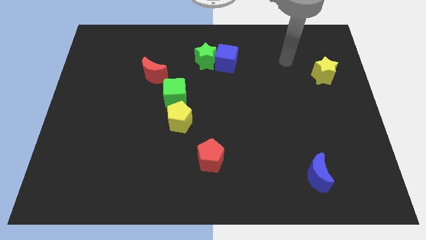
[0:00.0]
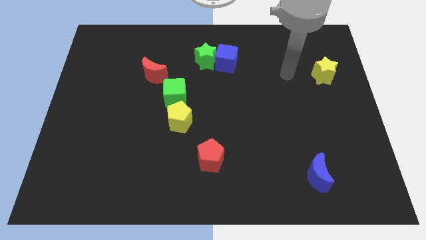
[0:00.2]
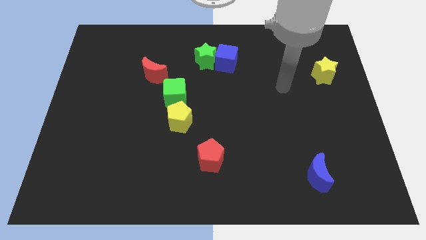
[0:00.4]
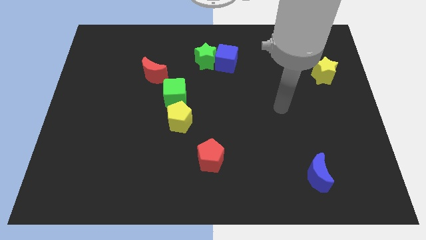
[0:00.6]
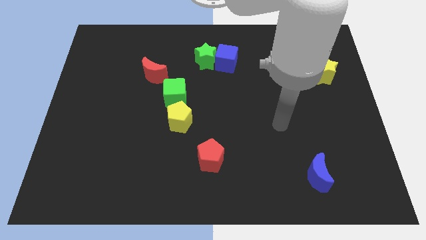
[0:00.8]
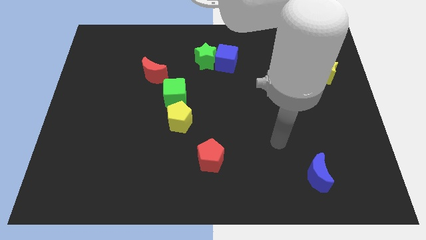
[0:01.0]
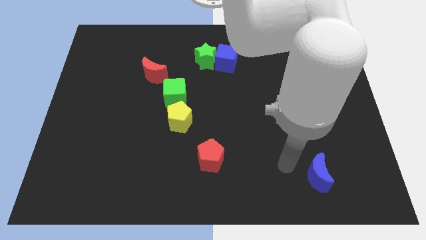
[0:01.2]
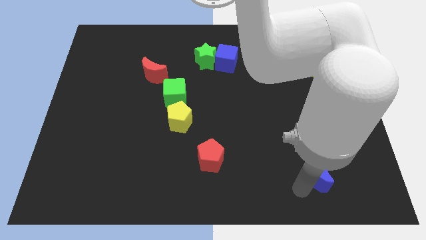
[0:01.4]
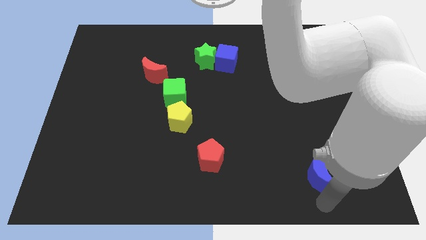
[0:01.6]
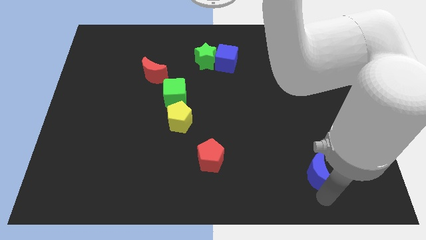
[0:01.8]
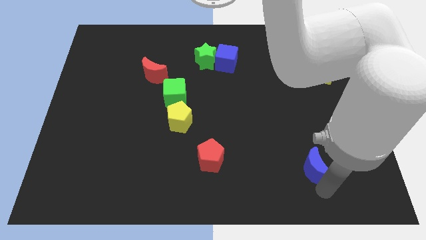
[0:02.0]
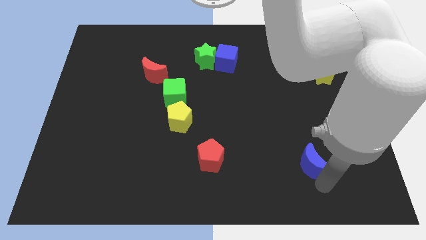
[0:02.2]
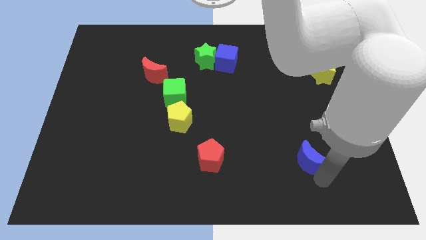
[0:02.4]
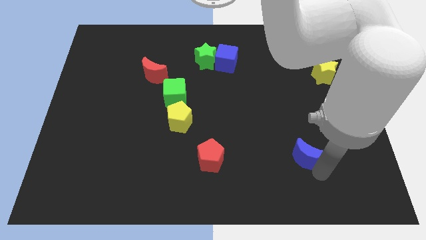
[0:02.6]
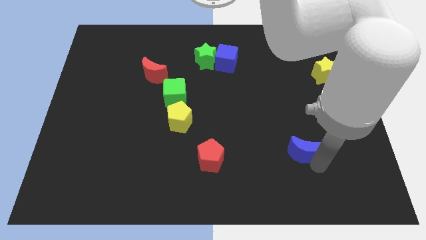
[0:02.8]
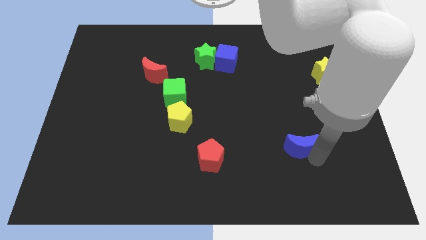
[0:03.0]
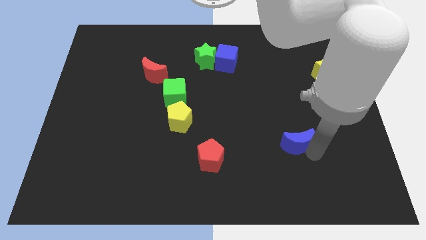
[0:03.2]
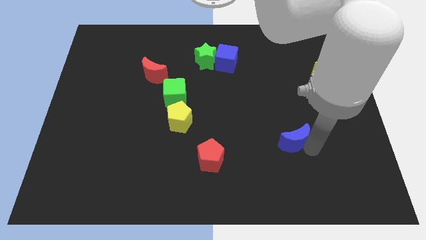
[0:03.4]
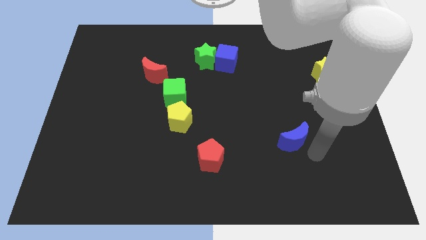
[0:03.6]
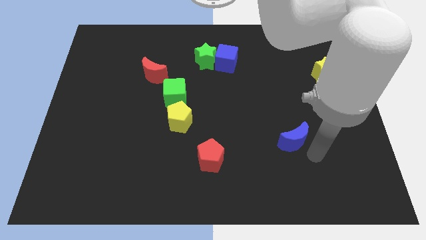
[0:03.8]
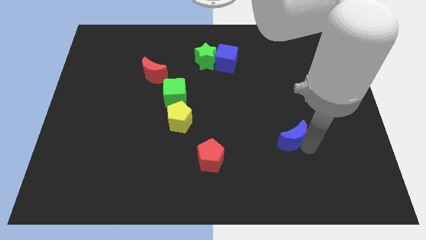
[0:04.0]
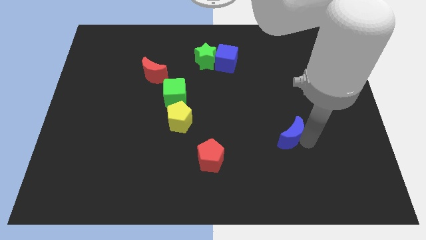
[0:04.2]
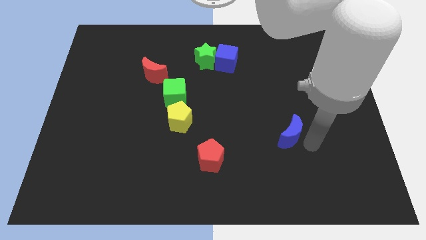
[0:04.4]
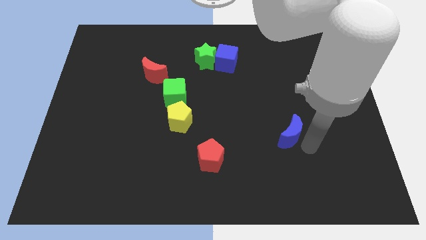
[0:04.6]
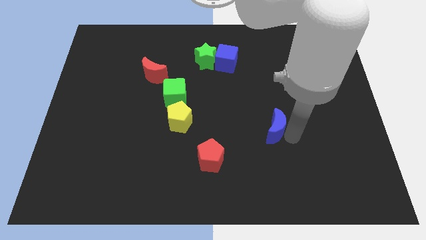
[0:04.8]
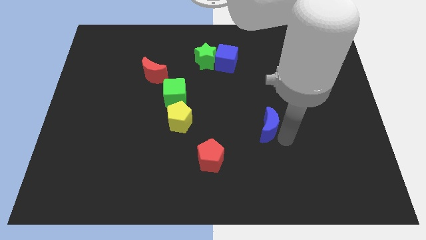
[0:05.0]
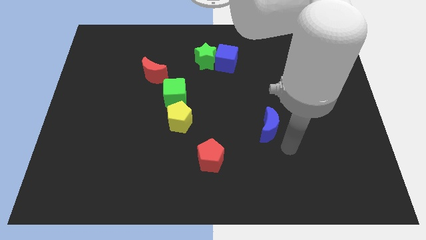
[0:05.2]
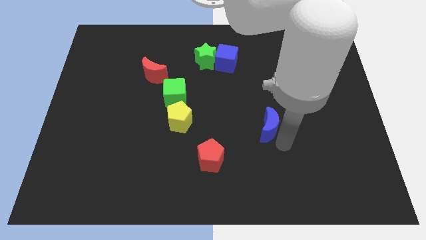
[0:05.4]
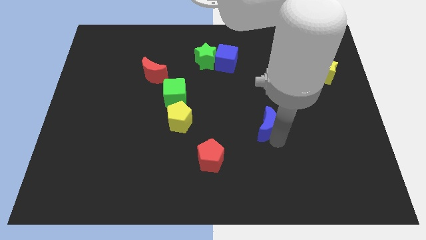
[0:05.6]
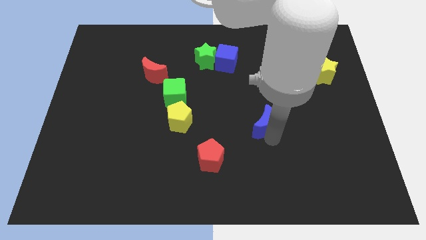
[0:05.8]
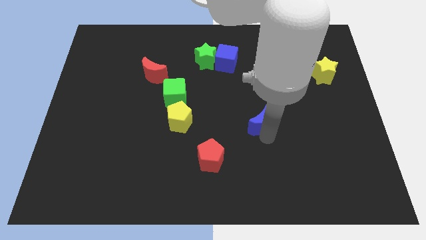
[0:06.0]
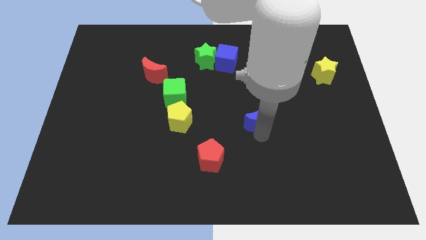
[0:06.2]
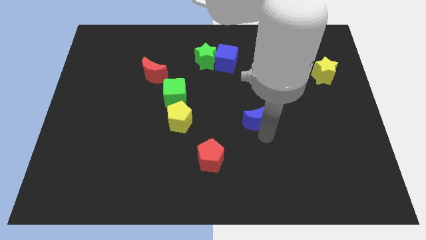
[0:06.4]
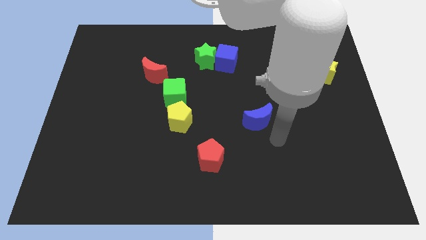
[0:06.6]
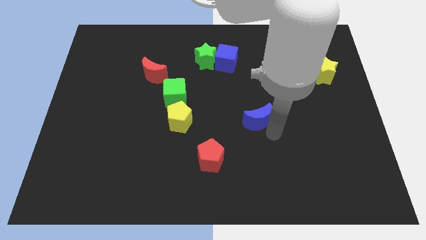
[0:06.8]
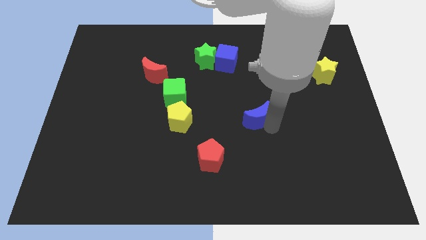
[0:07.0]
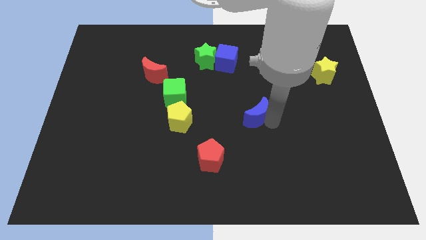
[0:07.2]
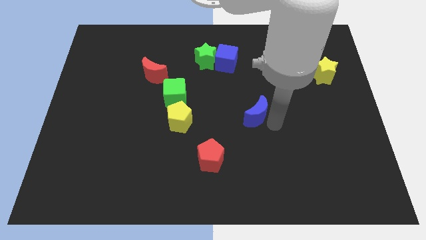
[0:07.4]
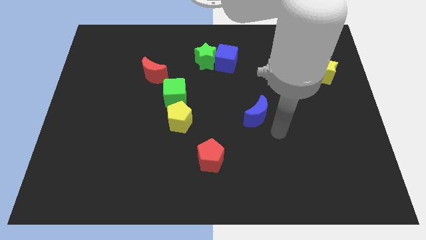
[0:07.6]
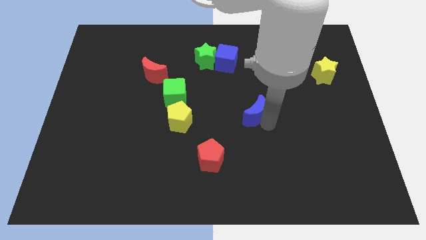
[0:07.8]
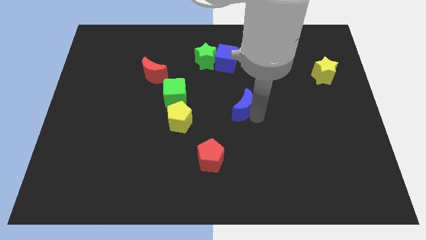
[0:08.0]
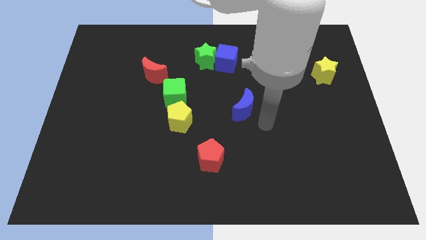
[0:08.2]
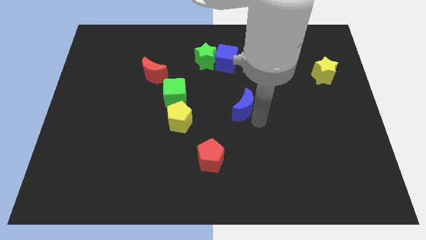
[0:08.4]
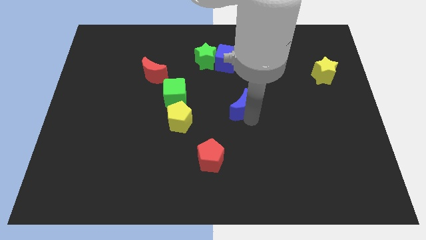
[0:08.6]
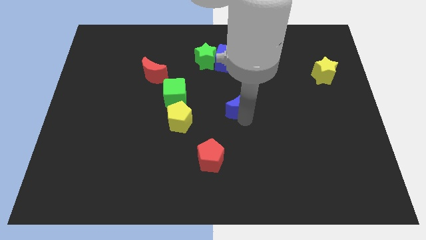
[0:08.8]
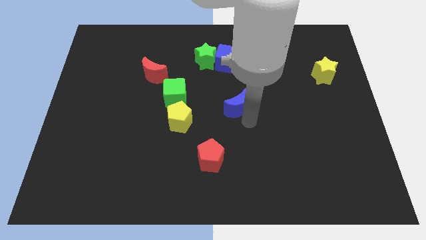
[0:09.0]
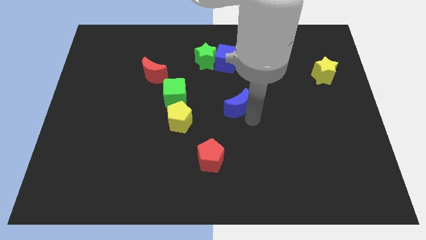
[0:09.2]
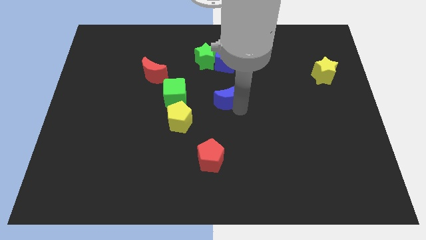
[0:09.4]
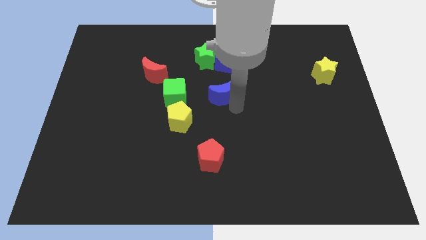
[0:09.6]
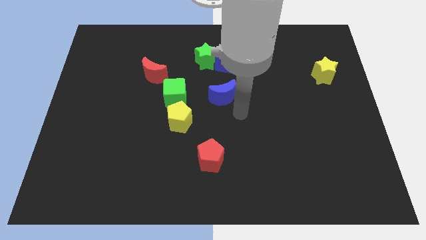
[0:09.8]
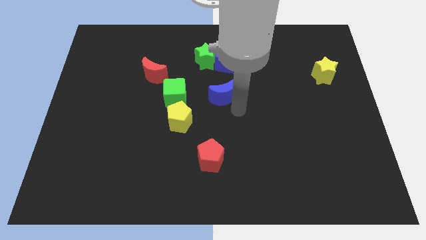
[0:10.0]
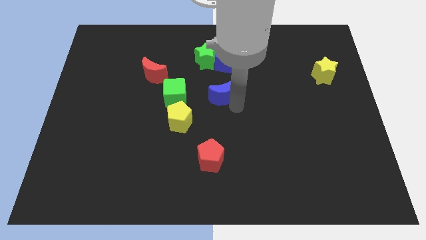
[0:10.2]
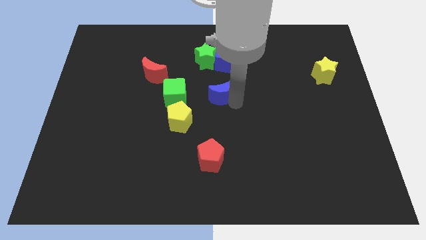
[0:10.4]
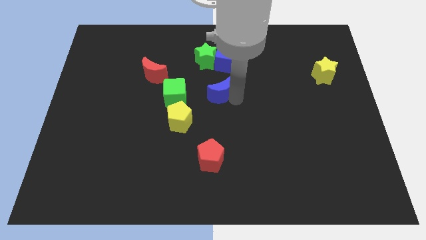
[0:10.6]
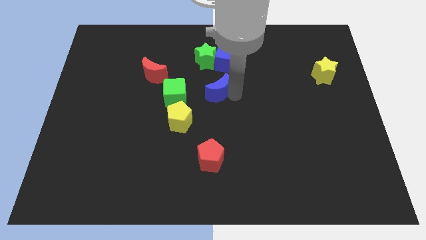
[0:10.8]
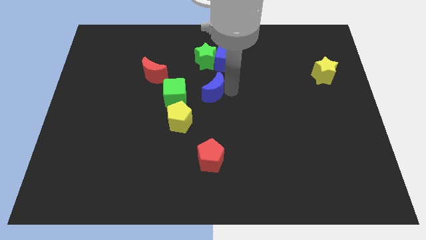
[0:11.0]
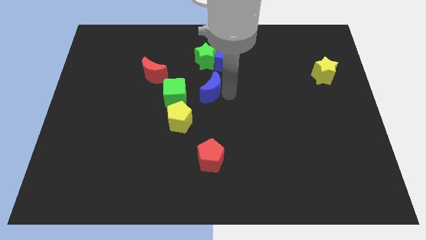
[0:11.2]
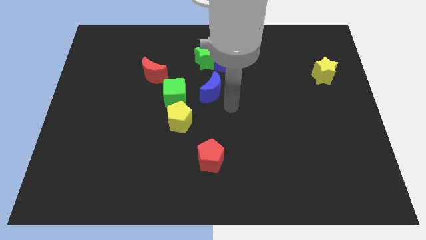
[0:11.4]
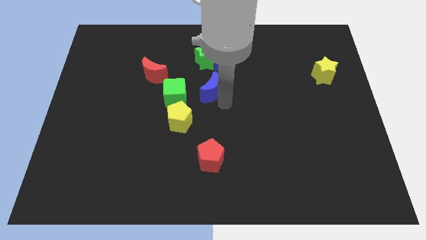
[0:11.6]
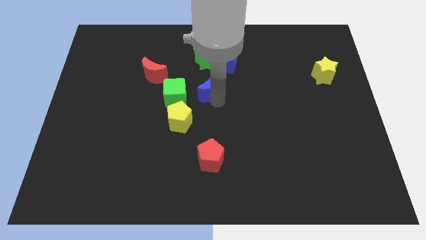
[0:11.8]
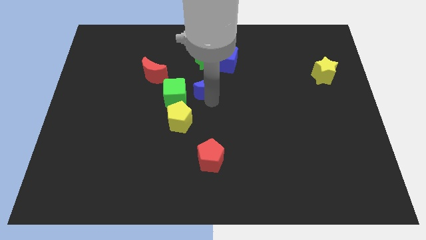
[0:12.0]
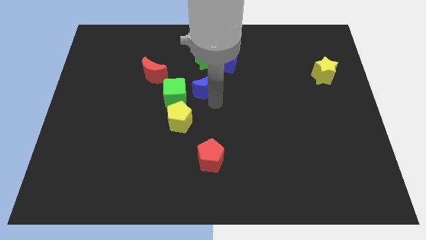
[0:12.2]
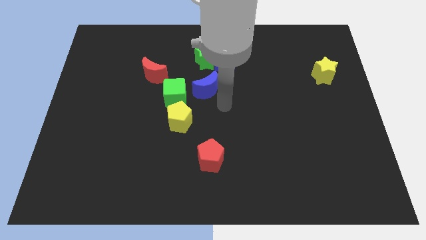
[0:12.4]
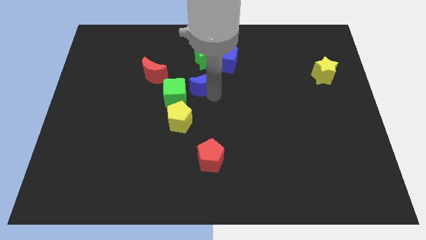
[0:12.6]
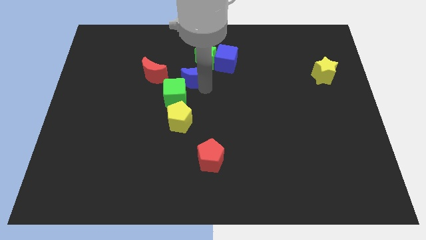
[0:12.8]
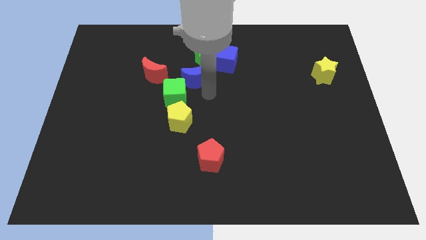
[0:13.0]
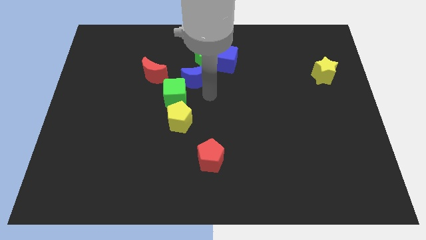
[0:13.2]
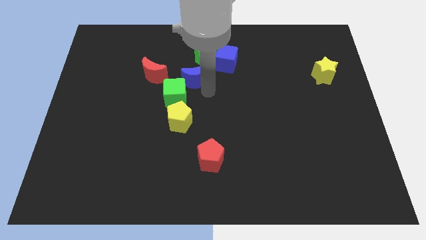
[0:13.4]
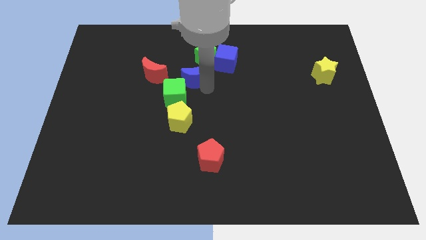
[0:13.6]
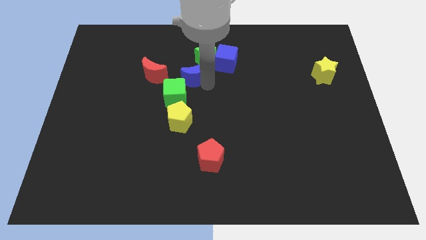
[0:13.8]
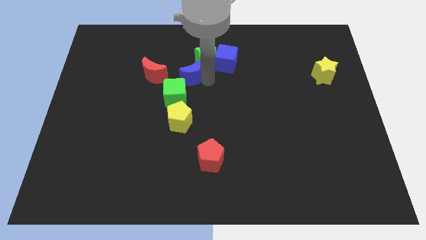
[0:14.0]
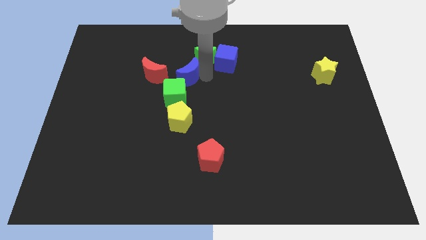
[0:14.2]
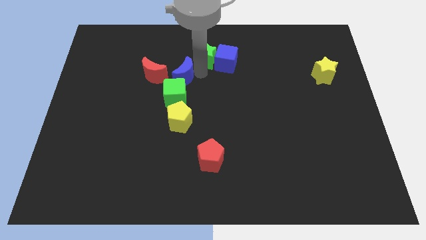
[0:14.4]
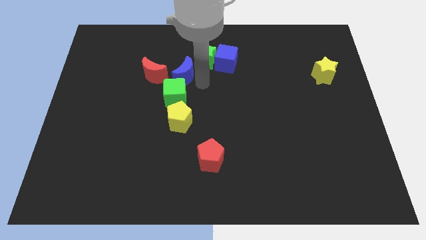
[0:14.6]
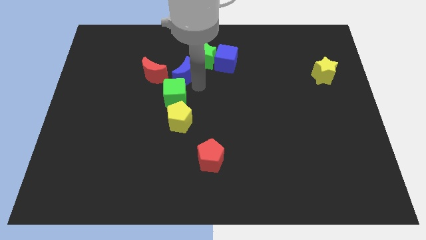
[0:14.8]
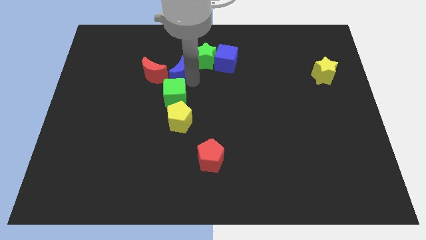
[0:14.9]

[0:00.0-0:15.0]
move the blue moon to the left side of the green star

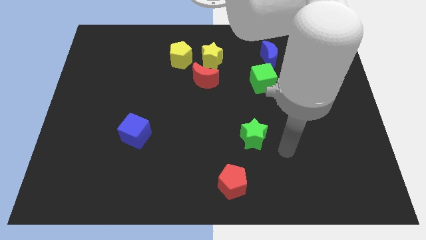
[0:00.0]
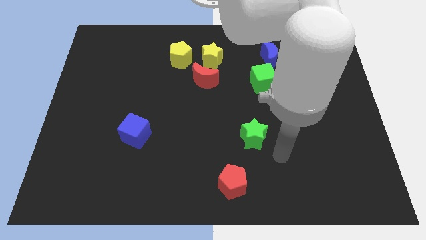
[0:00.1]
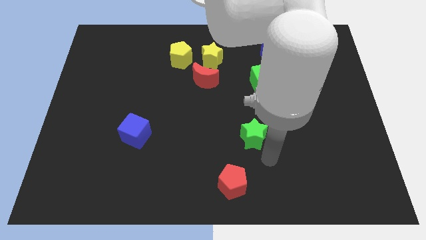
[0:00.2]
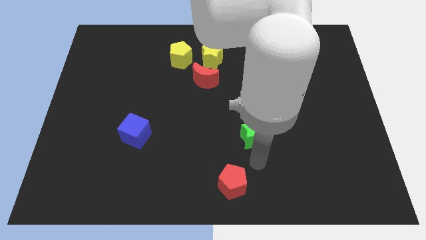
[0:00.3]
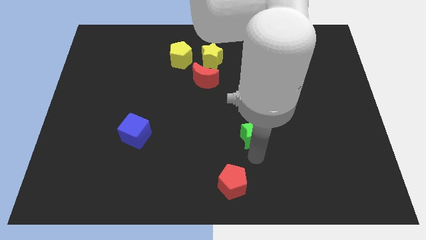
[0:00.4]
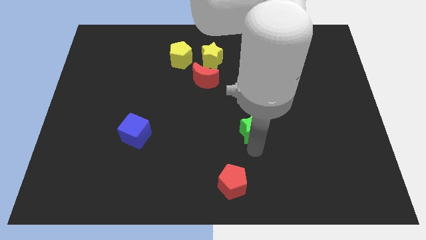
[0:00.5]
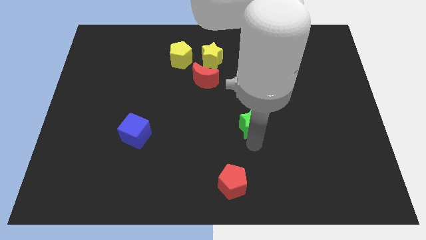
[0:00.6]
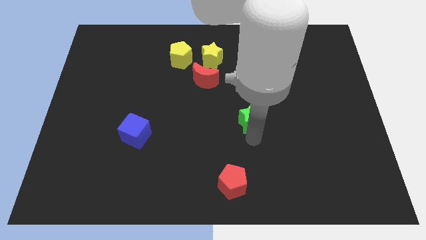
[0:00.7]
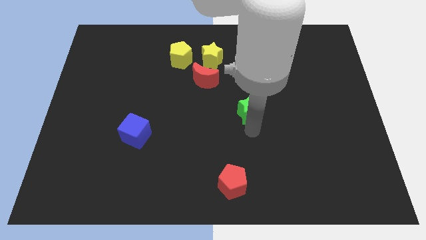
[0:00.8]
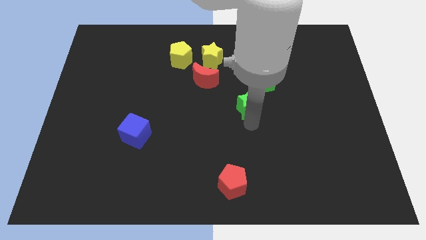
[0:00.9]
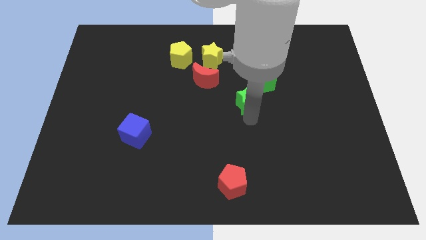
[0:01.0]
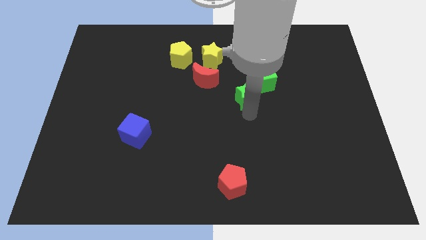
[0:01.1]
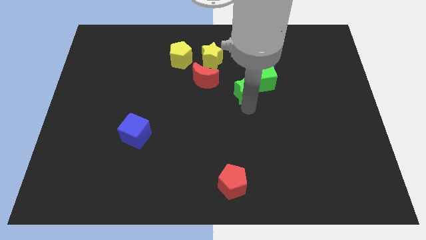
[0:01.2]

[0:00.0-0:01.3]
slide the green star right of the red moon
